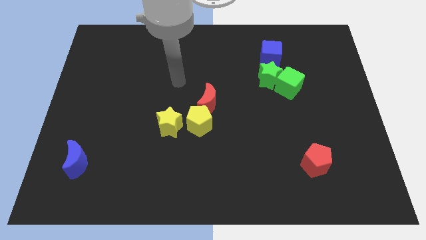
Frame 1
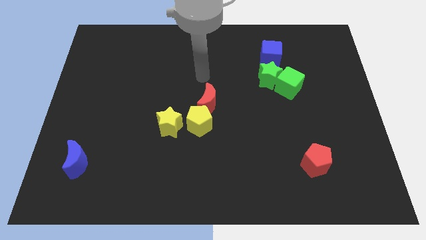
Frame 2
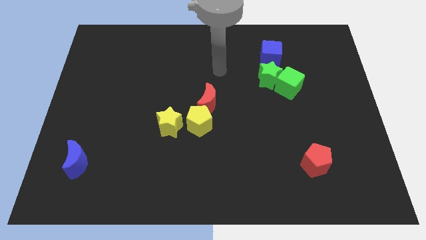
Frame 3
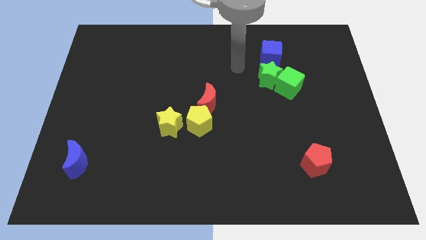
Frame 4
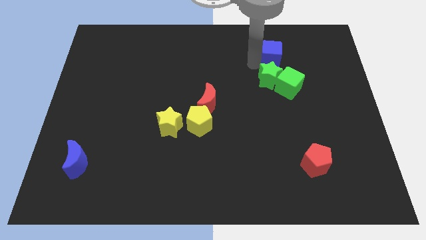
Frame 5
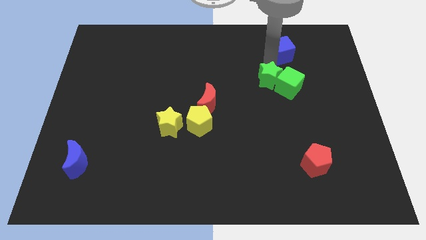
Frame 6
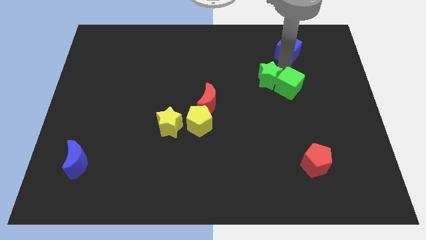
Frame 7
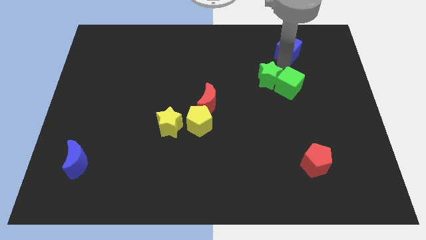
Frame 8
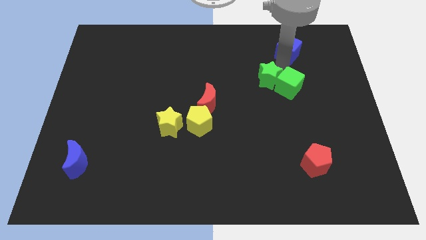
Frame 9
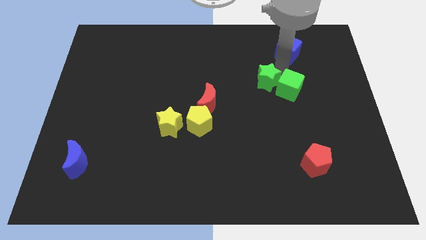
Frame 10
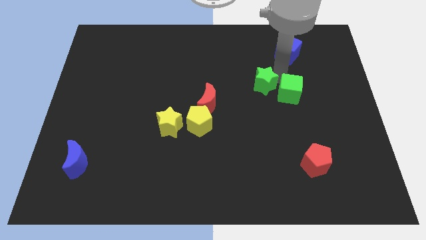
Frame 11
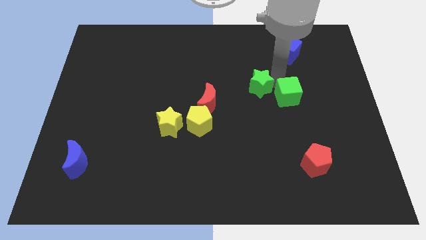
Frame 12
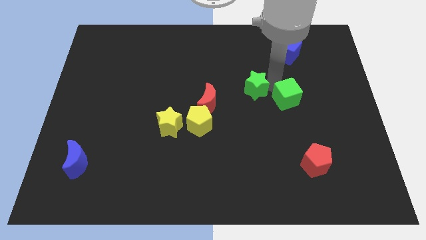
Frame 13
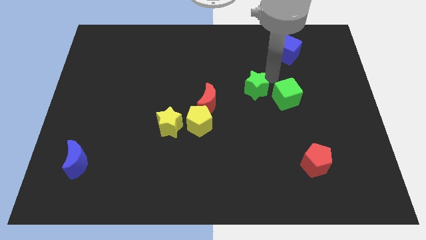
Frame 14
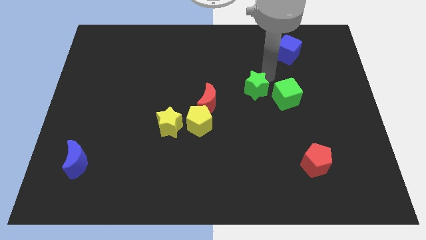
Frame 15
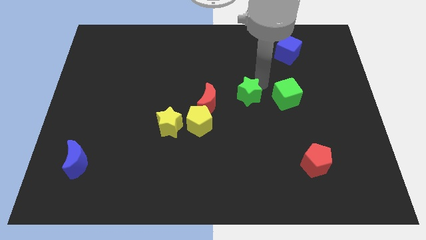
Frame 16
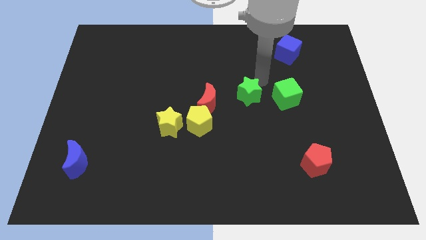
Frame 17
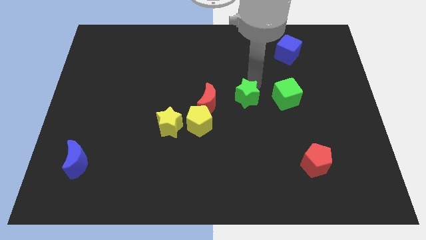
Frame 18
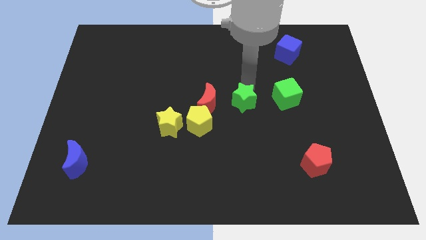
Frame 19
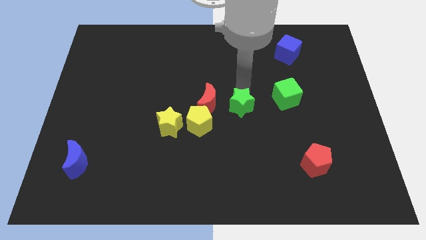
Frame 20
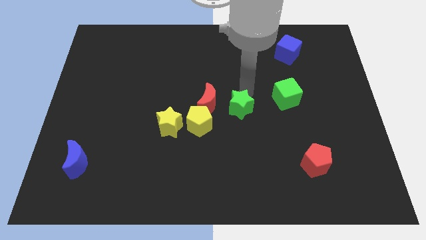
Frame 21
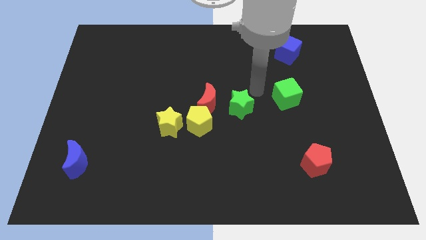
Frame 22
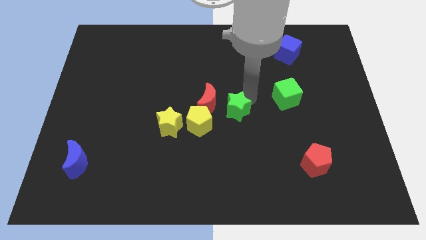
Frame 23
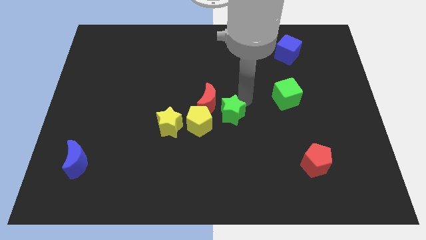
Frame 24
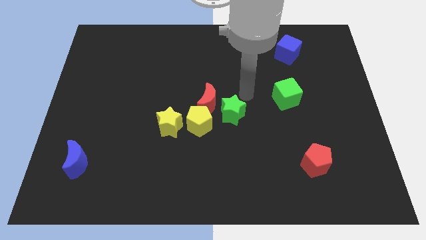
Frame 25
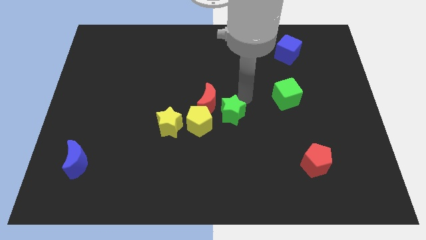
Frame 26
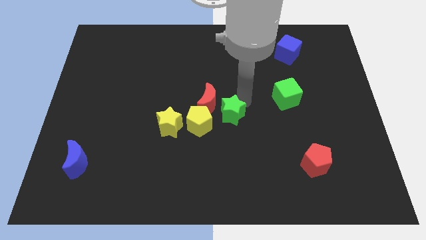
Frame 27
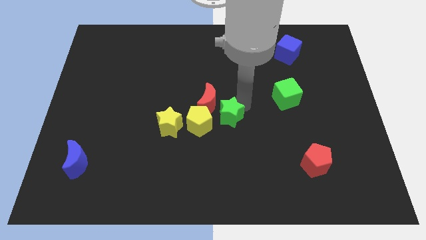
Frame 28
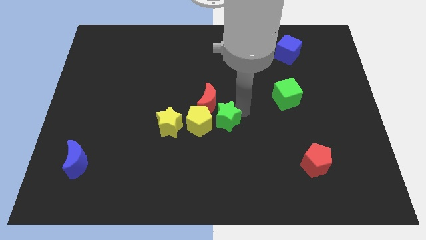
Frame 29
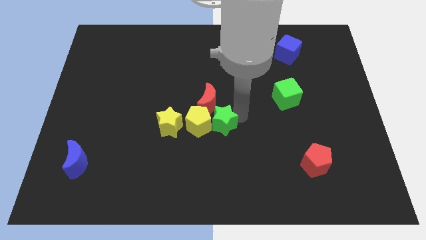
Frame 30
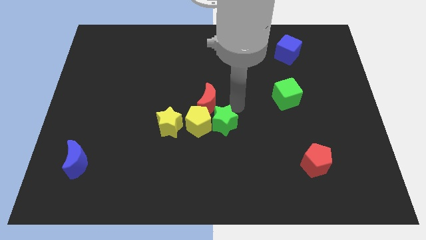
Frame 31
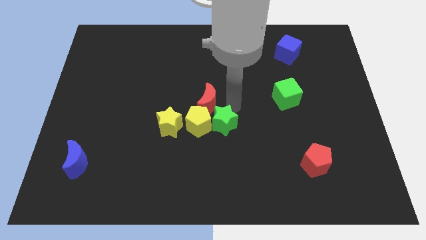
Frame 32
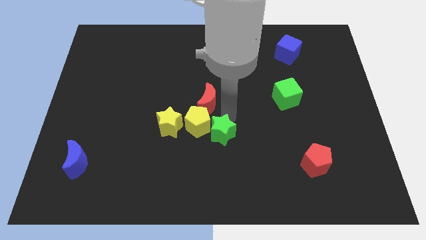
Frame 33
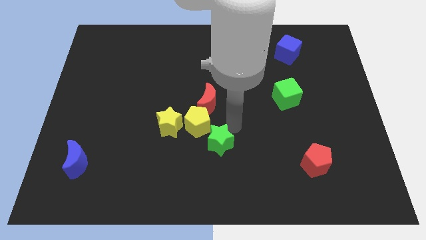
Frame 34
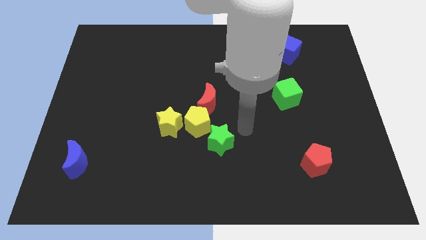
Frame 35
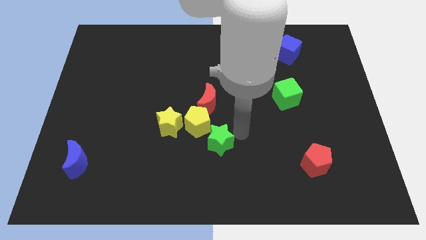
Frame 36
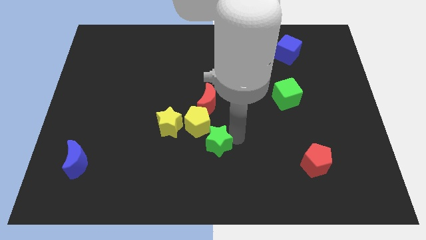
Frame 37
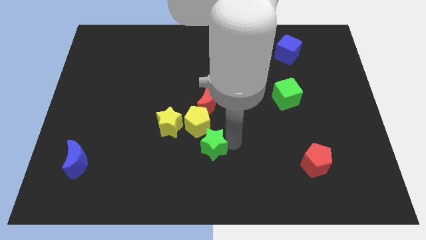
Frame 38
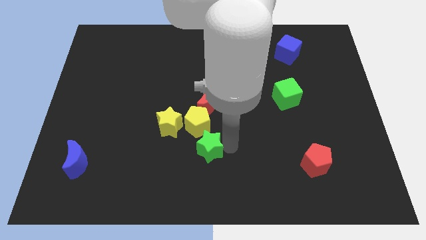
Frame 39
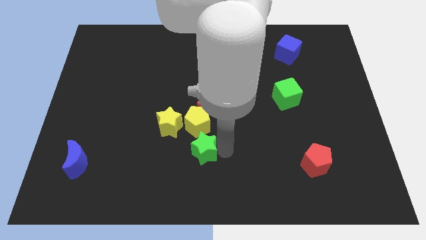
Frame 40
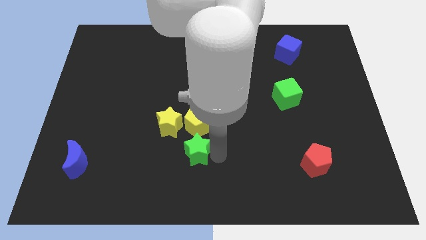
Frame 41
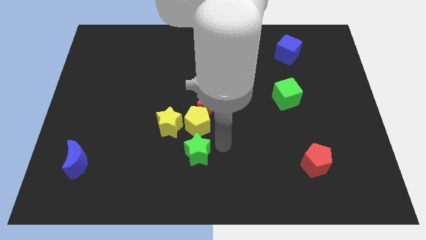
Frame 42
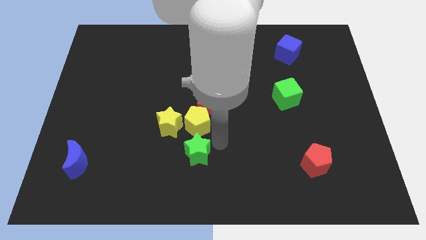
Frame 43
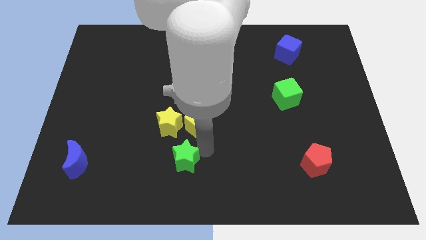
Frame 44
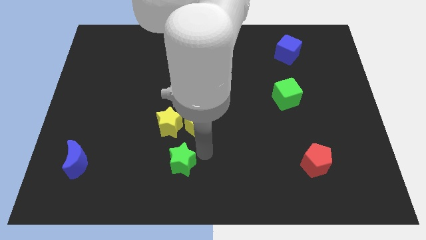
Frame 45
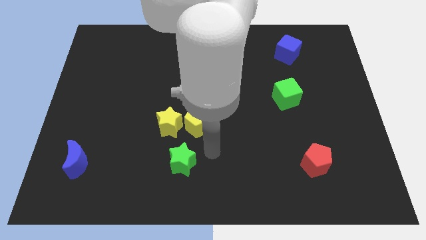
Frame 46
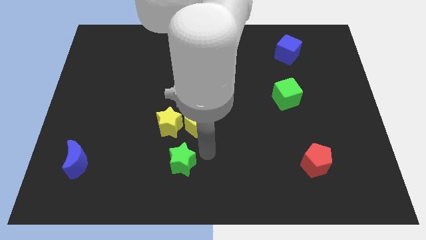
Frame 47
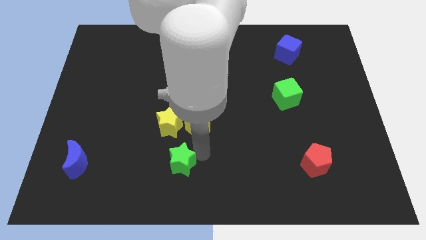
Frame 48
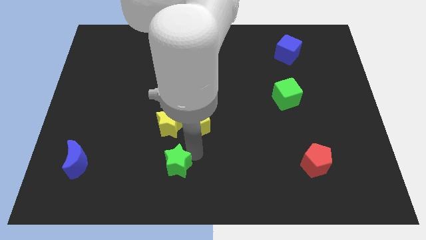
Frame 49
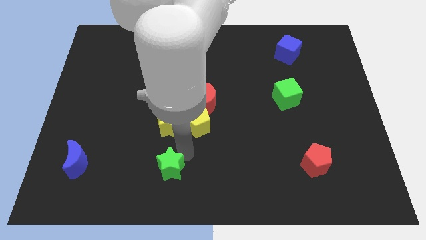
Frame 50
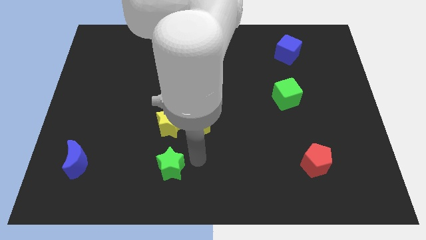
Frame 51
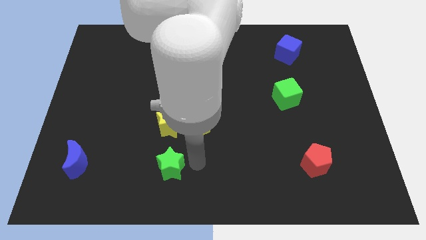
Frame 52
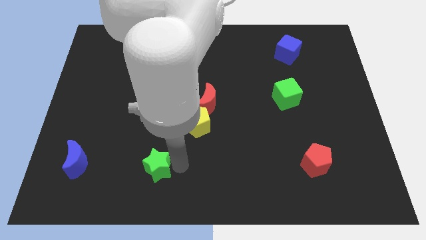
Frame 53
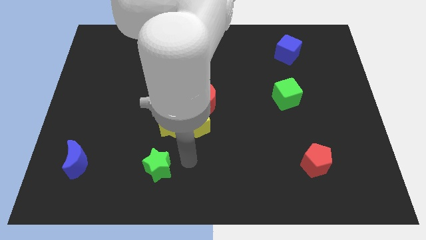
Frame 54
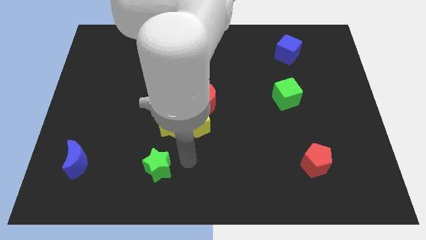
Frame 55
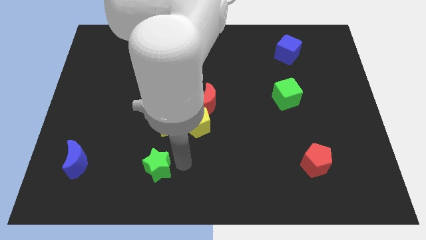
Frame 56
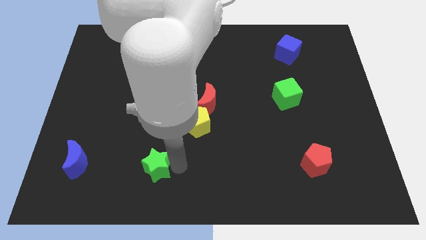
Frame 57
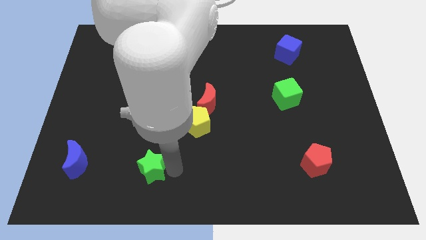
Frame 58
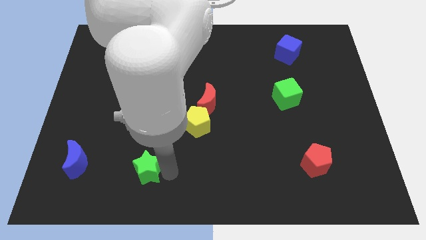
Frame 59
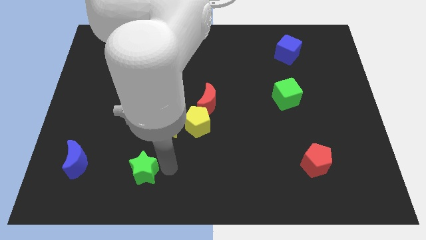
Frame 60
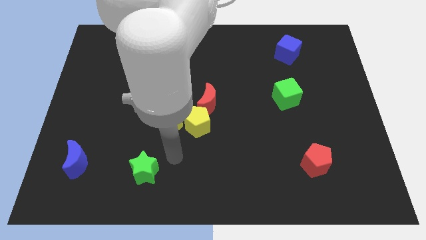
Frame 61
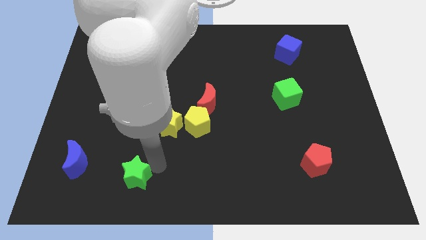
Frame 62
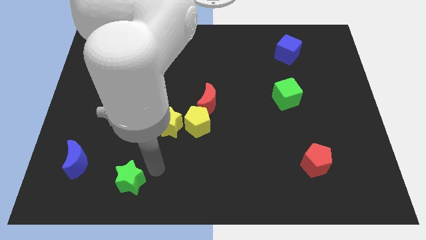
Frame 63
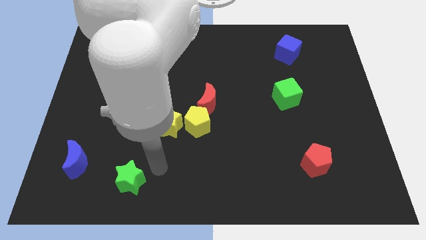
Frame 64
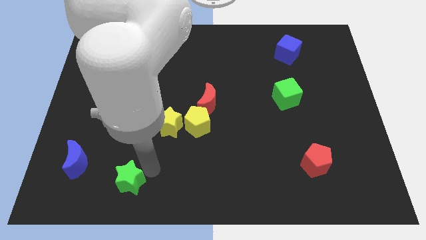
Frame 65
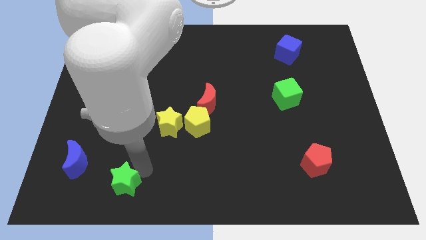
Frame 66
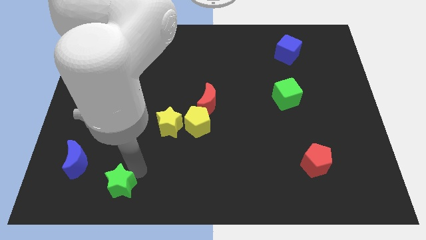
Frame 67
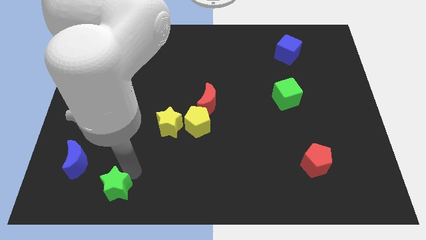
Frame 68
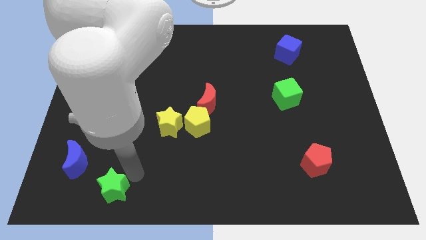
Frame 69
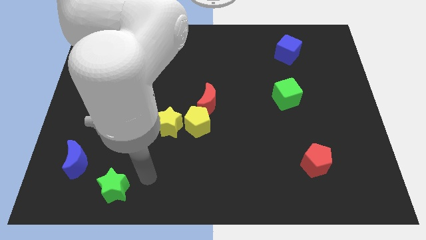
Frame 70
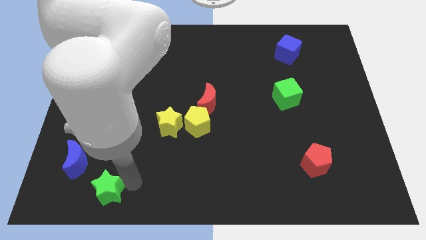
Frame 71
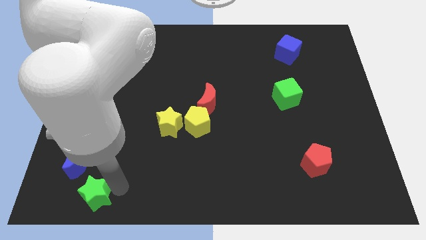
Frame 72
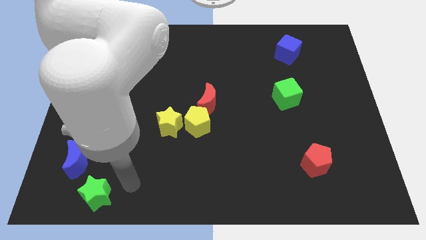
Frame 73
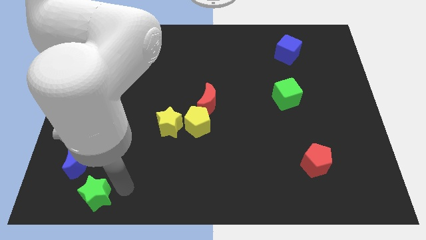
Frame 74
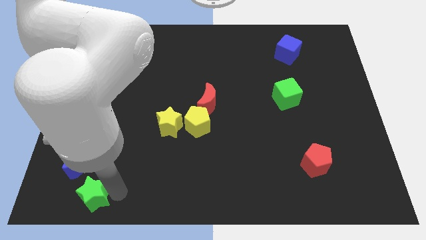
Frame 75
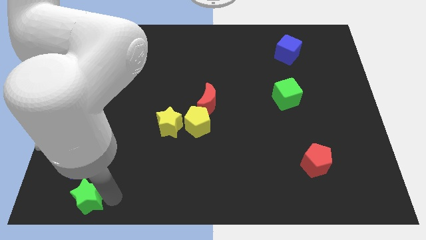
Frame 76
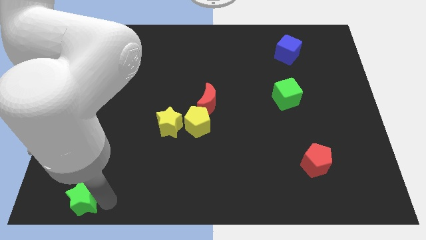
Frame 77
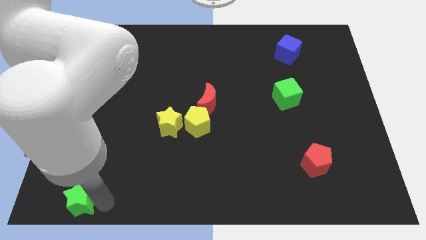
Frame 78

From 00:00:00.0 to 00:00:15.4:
put the green star to the bottom left of the board

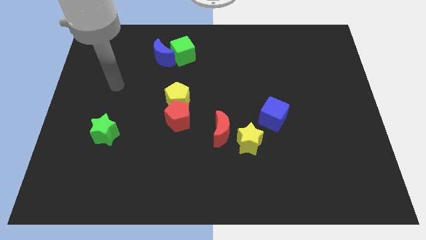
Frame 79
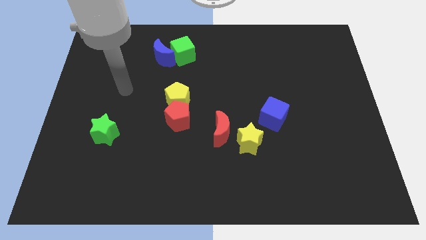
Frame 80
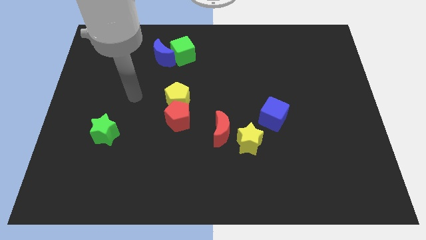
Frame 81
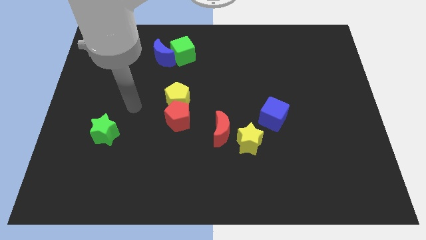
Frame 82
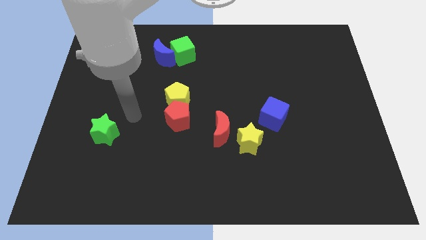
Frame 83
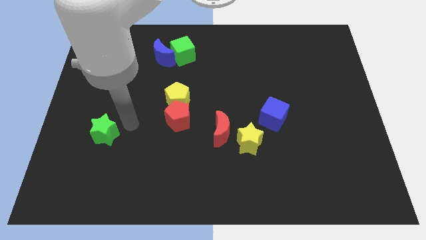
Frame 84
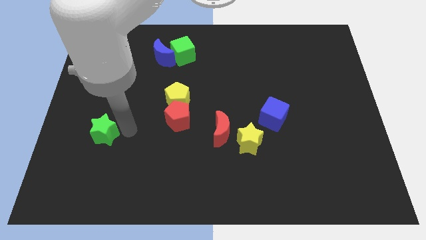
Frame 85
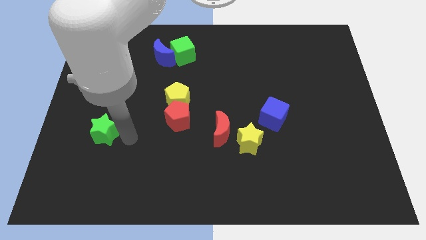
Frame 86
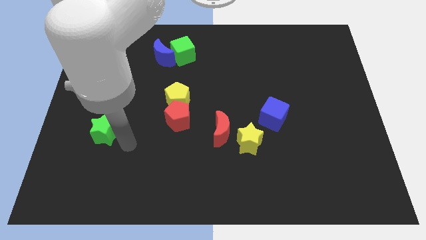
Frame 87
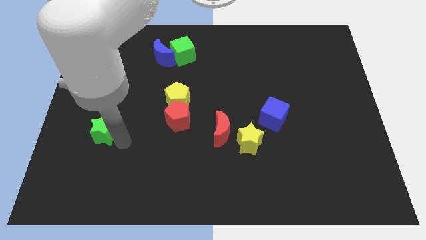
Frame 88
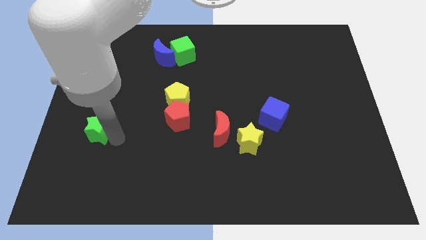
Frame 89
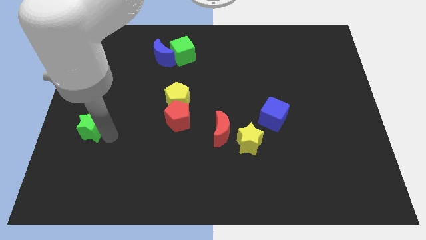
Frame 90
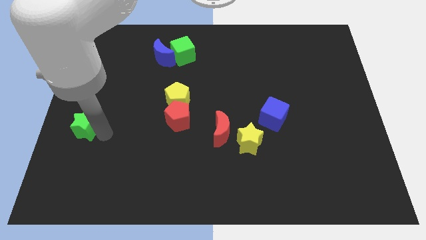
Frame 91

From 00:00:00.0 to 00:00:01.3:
slide the green star to the center left
